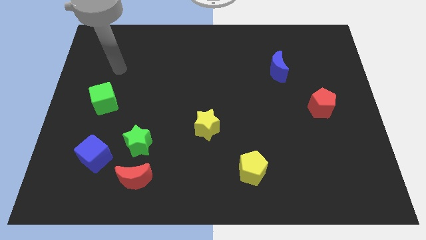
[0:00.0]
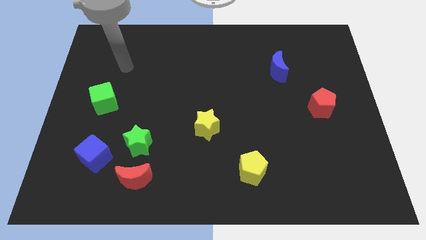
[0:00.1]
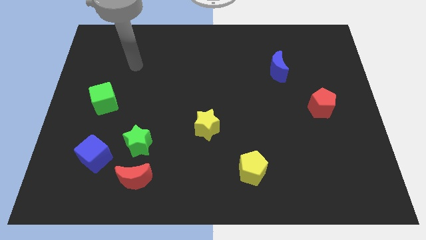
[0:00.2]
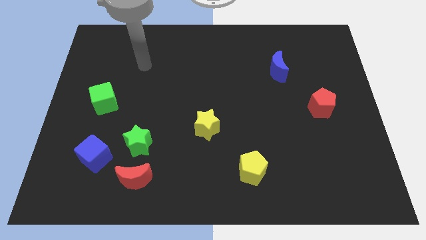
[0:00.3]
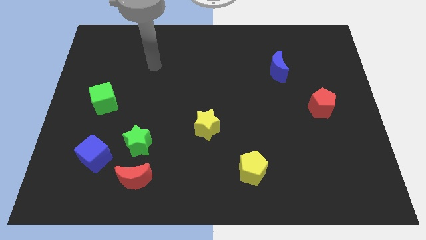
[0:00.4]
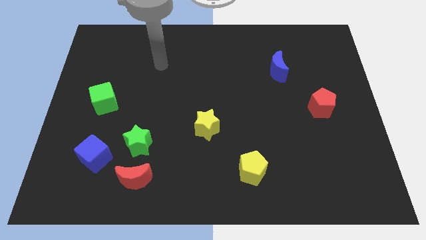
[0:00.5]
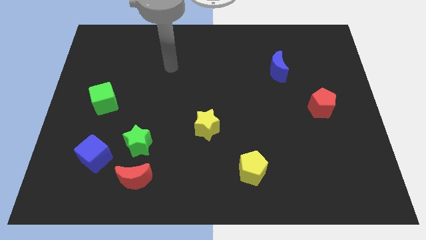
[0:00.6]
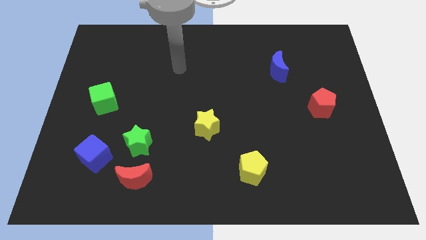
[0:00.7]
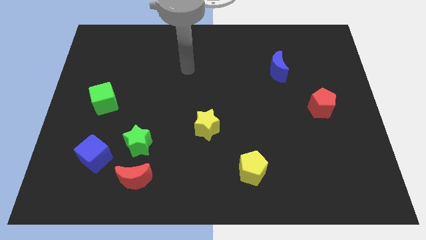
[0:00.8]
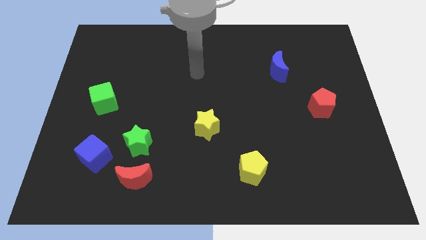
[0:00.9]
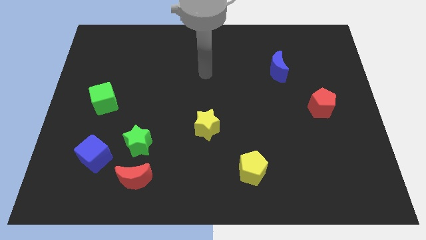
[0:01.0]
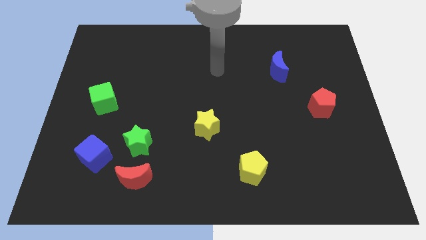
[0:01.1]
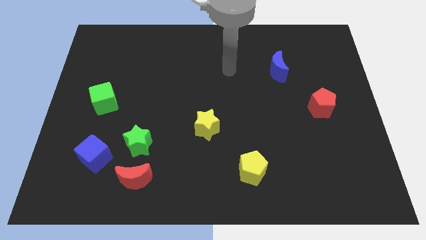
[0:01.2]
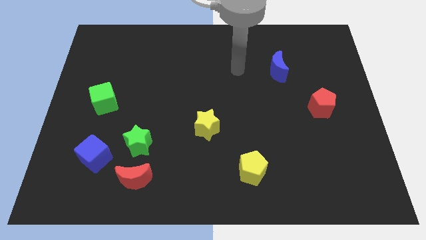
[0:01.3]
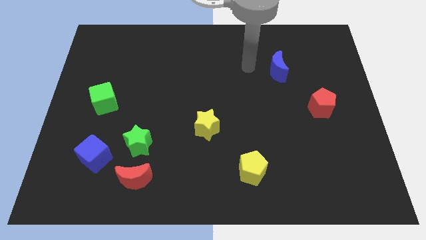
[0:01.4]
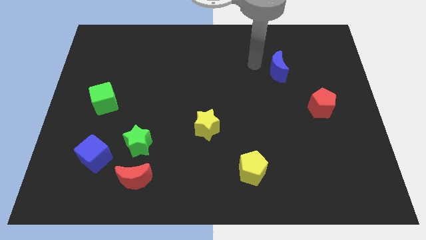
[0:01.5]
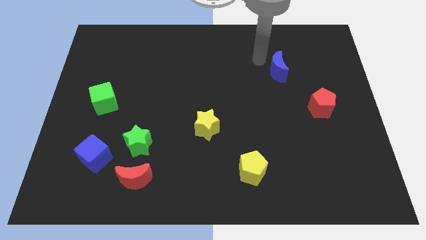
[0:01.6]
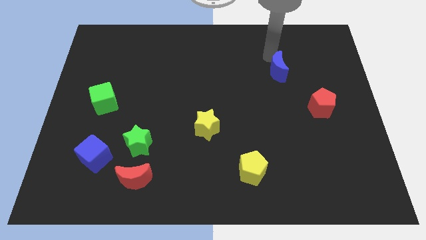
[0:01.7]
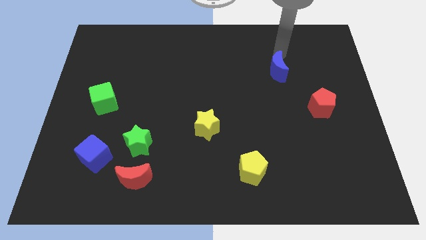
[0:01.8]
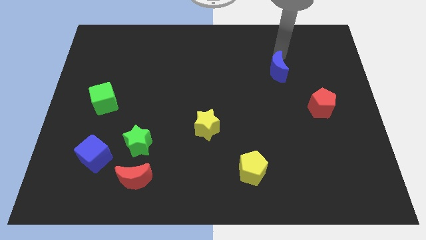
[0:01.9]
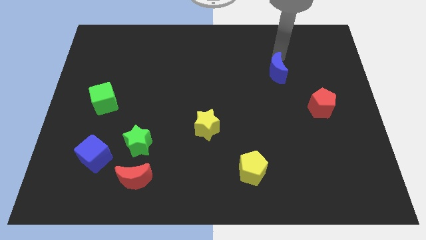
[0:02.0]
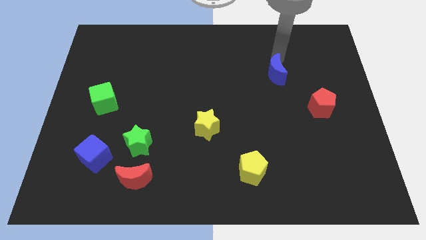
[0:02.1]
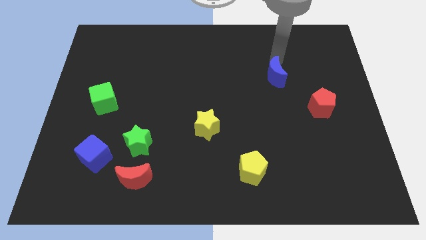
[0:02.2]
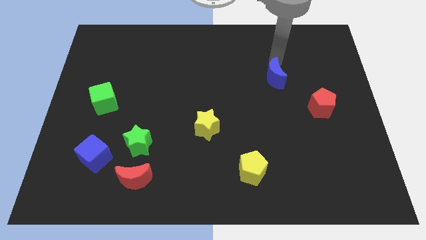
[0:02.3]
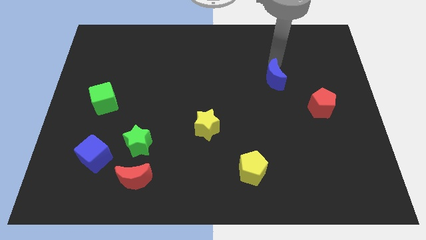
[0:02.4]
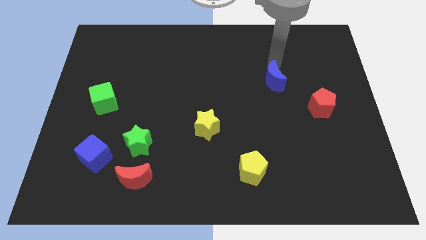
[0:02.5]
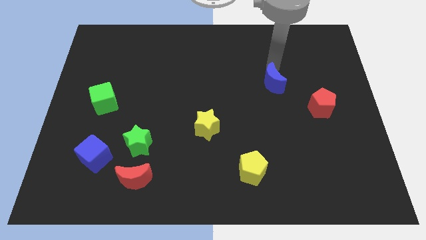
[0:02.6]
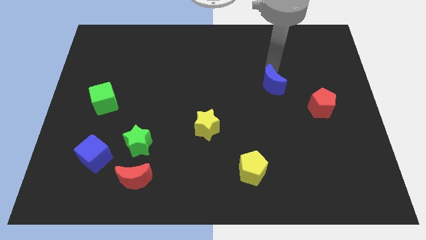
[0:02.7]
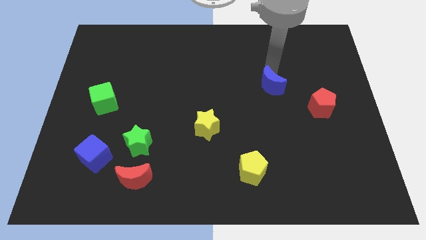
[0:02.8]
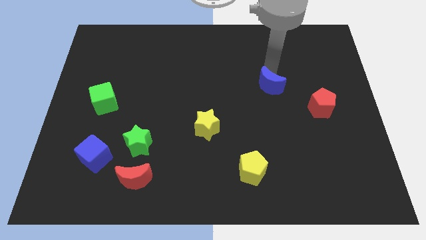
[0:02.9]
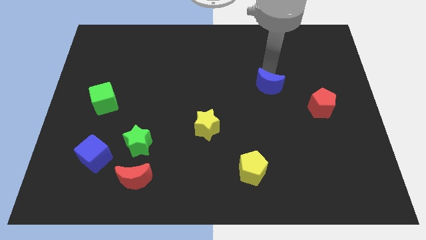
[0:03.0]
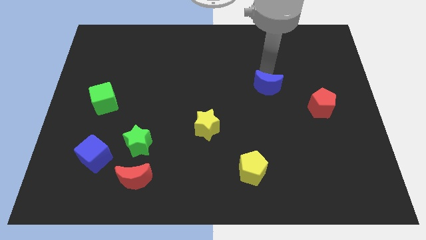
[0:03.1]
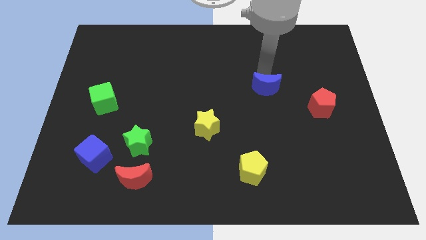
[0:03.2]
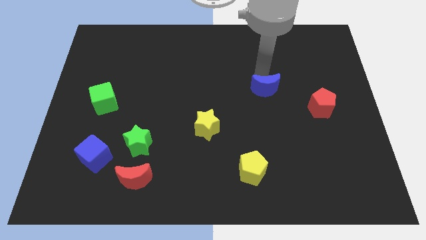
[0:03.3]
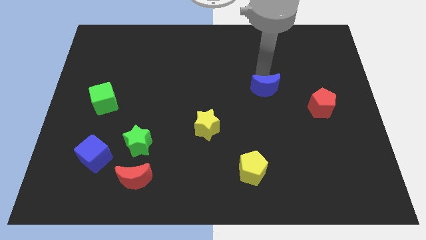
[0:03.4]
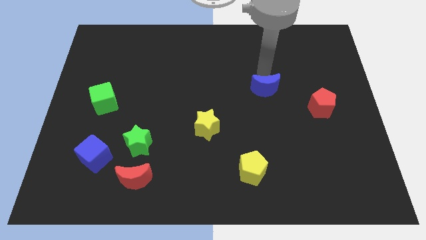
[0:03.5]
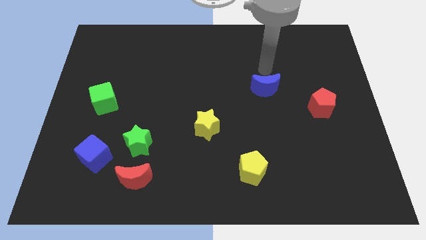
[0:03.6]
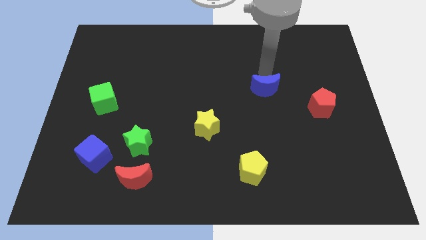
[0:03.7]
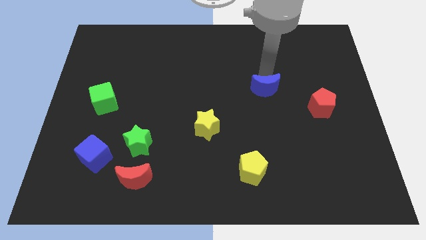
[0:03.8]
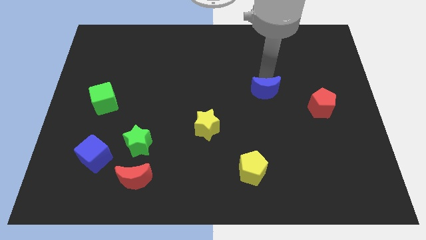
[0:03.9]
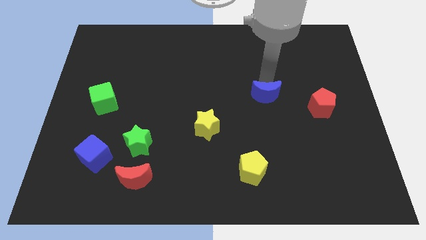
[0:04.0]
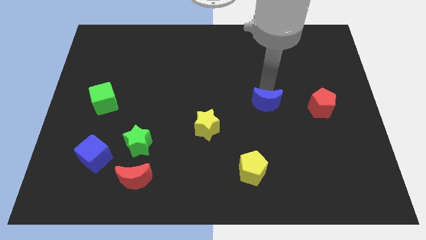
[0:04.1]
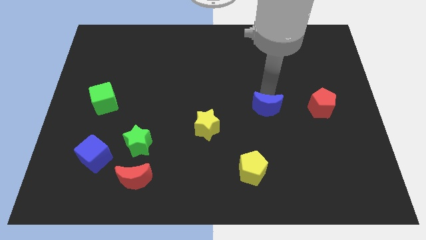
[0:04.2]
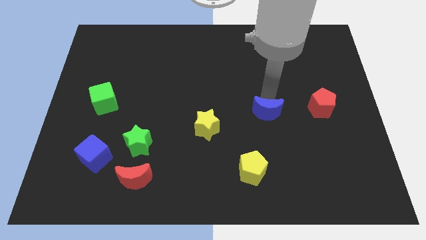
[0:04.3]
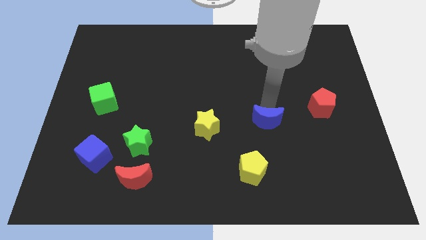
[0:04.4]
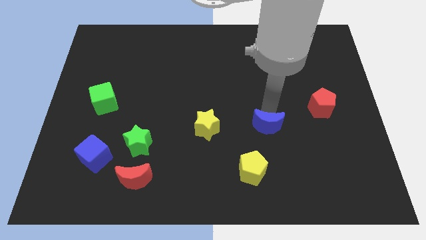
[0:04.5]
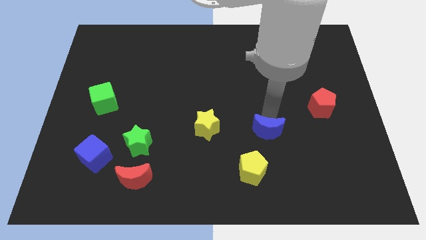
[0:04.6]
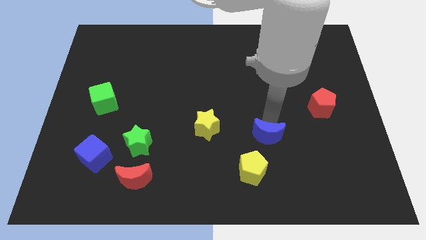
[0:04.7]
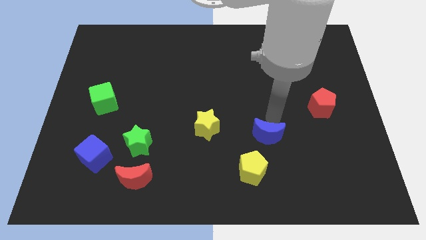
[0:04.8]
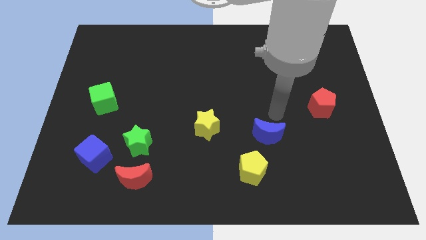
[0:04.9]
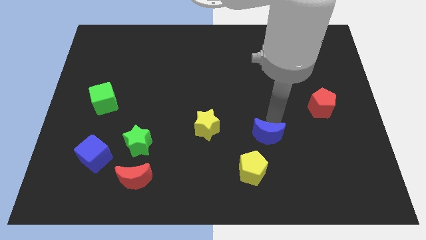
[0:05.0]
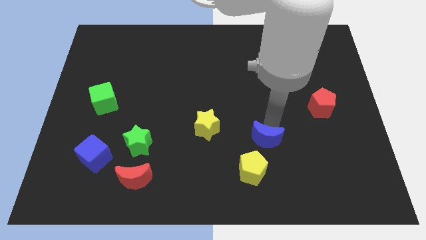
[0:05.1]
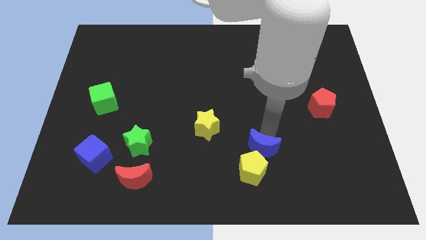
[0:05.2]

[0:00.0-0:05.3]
move the blue moon close to the yellow pentagon

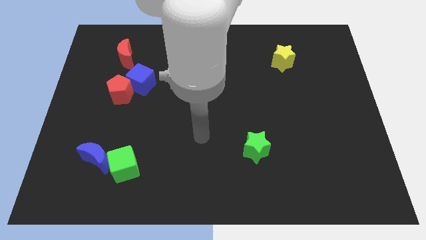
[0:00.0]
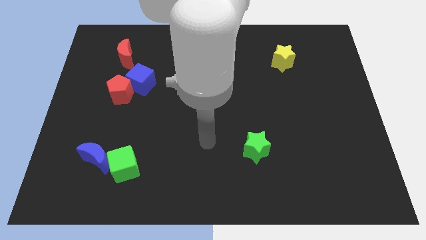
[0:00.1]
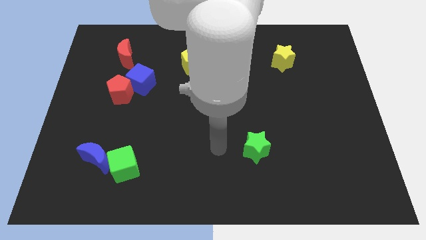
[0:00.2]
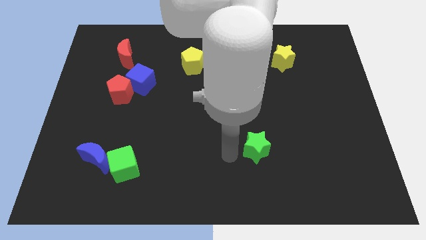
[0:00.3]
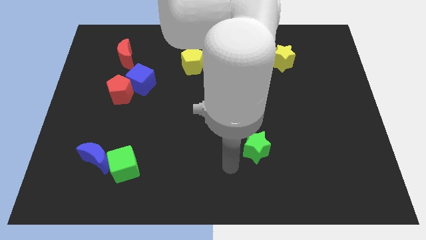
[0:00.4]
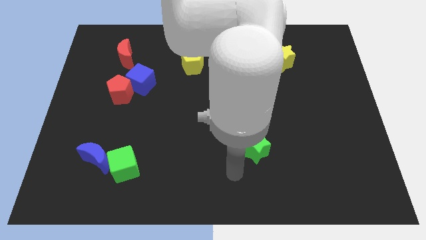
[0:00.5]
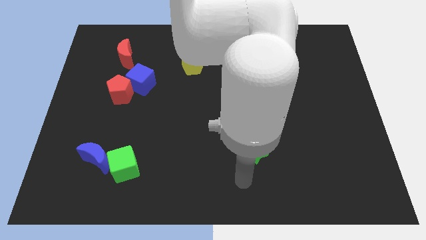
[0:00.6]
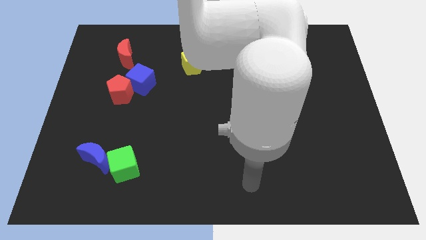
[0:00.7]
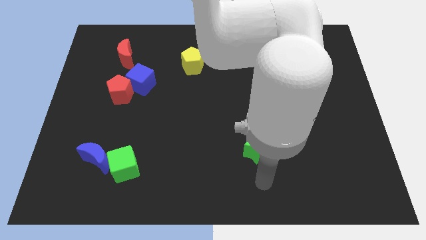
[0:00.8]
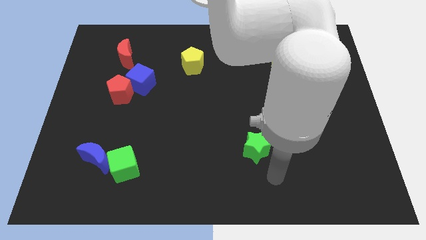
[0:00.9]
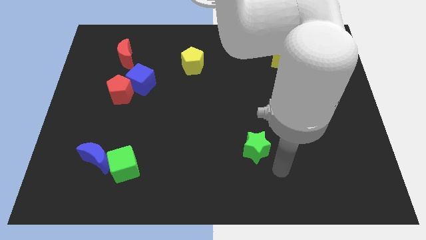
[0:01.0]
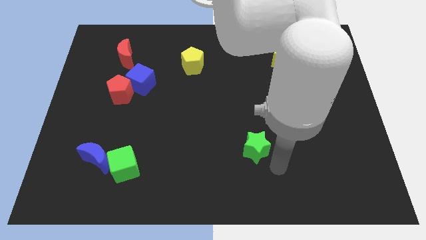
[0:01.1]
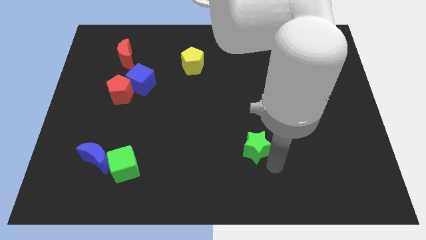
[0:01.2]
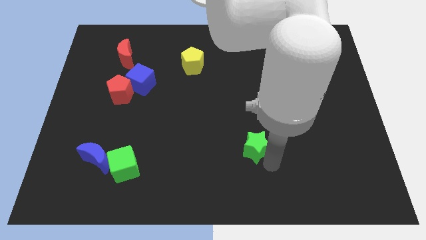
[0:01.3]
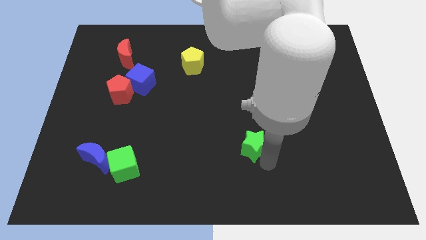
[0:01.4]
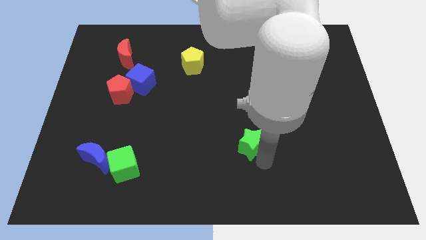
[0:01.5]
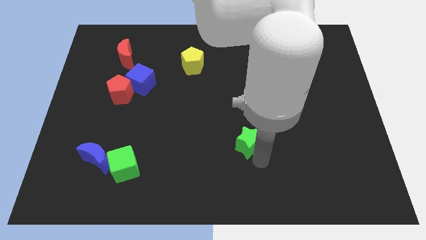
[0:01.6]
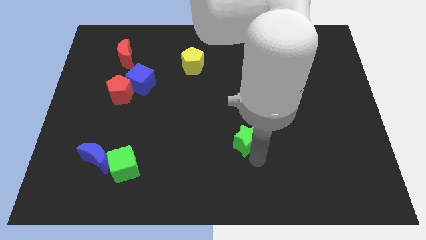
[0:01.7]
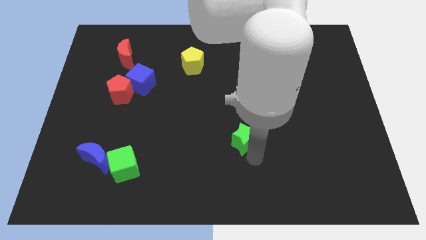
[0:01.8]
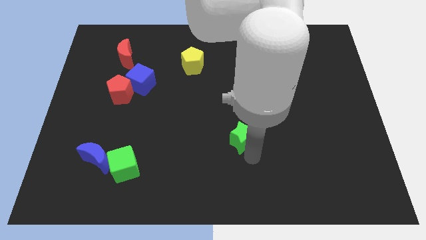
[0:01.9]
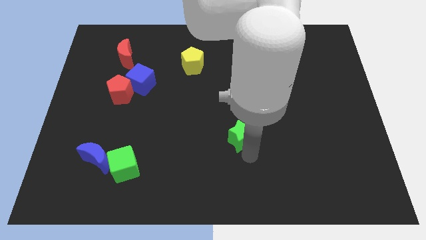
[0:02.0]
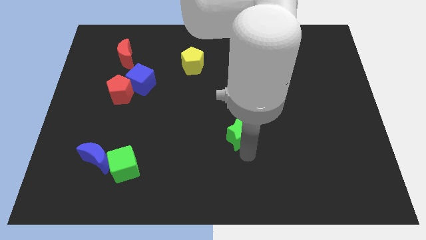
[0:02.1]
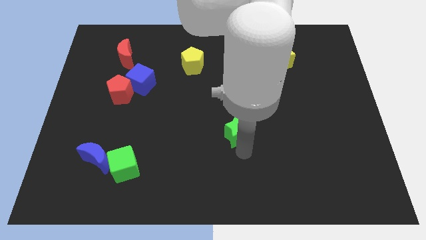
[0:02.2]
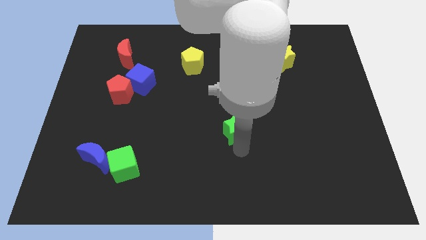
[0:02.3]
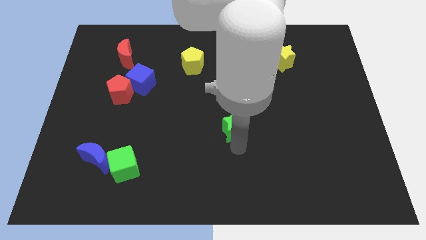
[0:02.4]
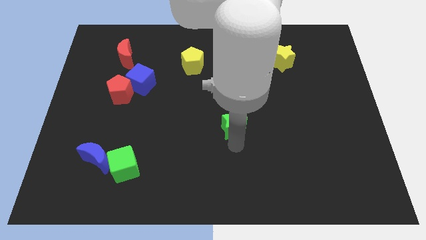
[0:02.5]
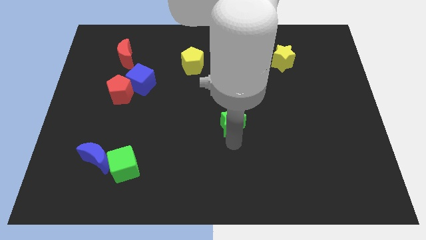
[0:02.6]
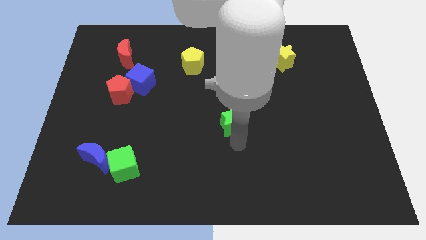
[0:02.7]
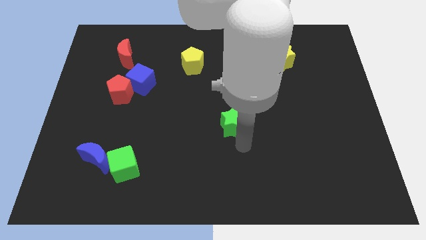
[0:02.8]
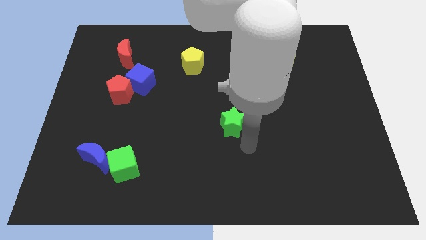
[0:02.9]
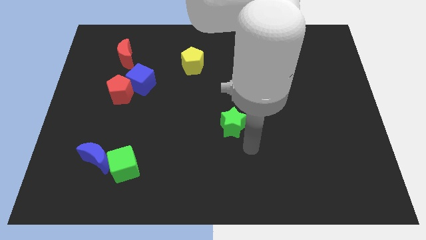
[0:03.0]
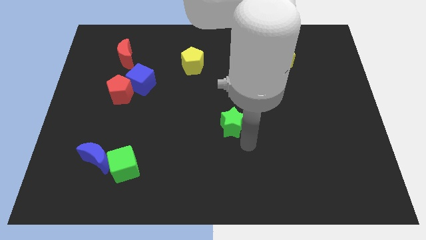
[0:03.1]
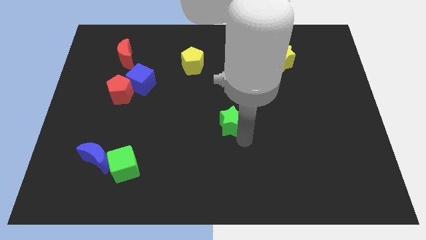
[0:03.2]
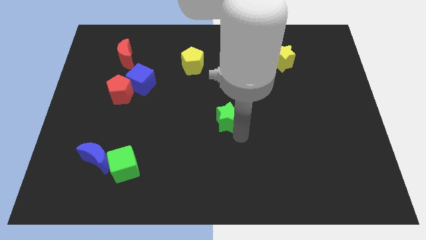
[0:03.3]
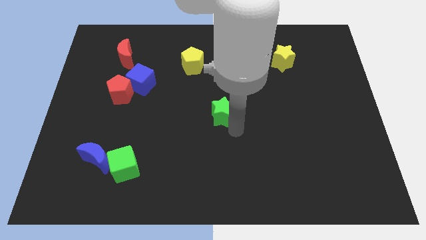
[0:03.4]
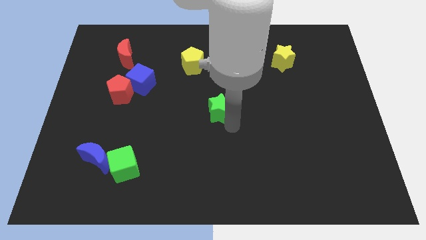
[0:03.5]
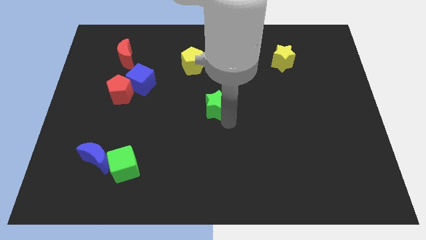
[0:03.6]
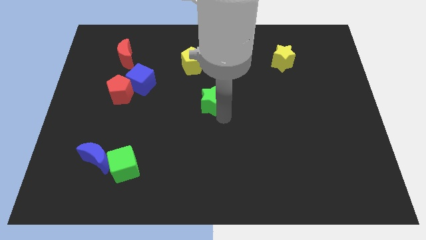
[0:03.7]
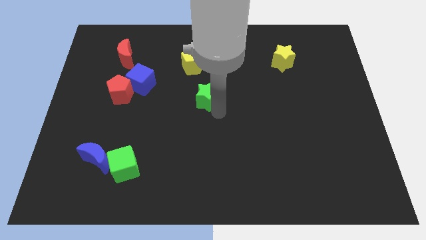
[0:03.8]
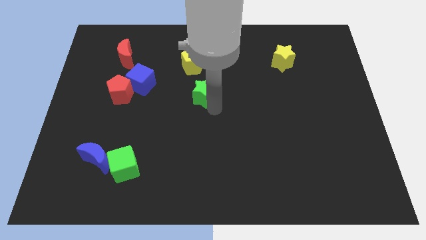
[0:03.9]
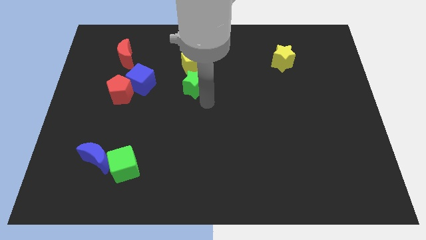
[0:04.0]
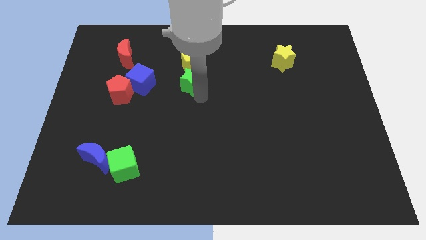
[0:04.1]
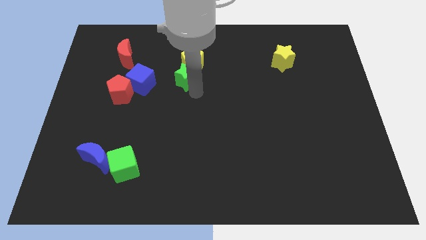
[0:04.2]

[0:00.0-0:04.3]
move the green star towards the yellow pentagon
